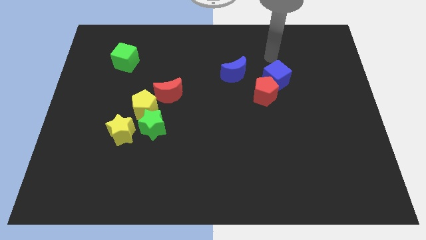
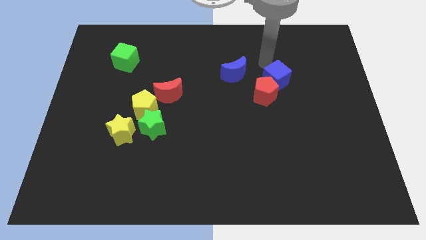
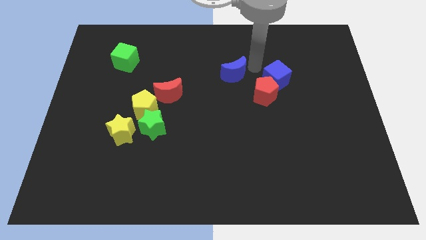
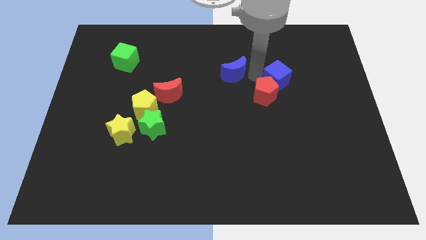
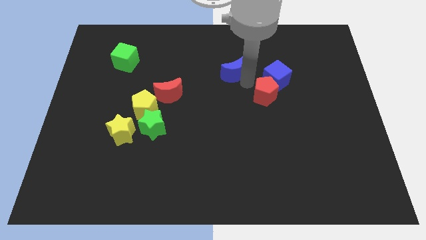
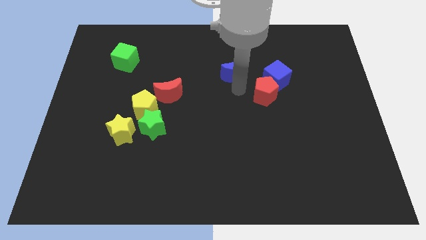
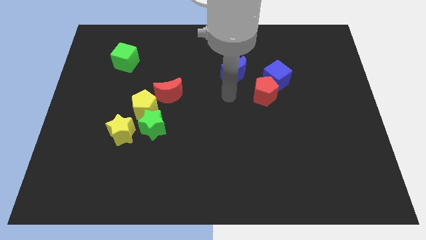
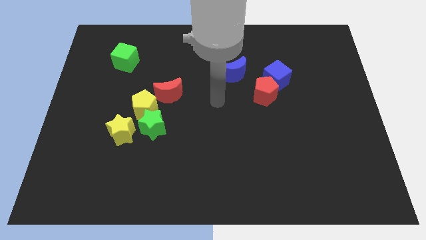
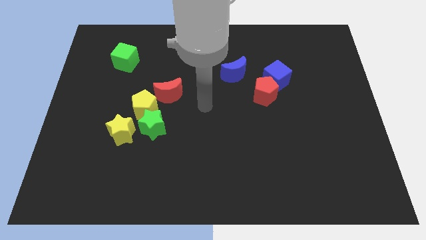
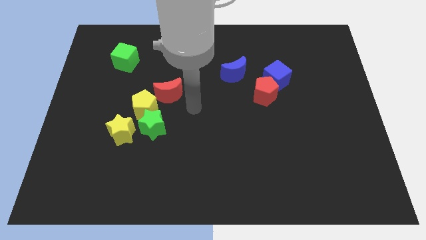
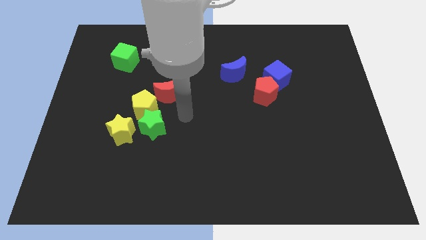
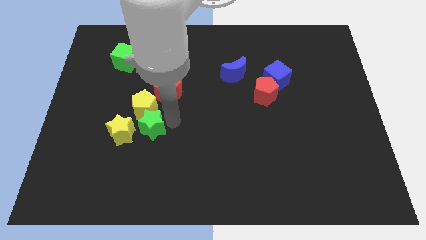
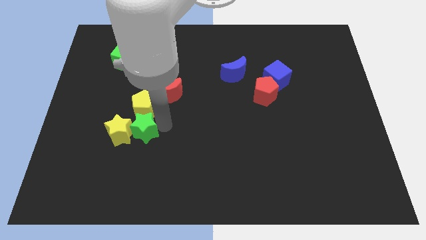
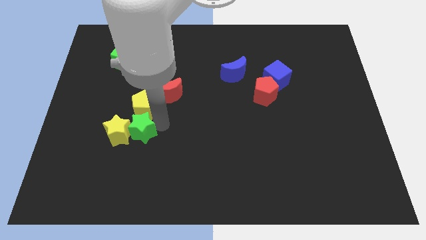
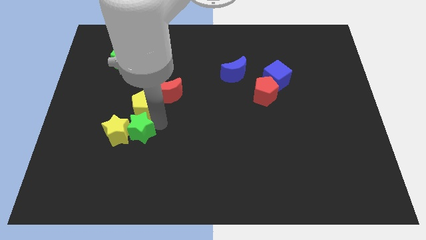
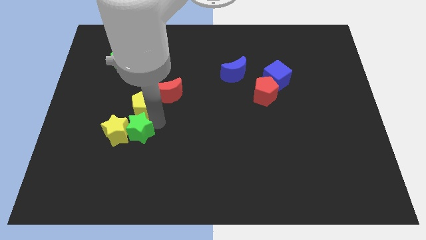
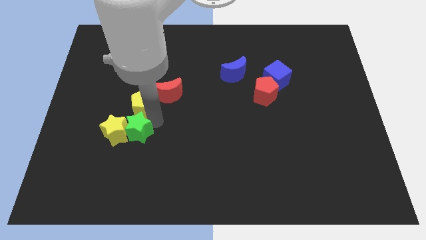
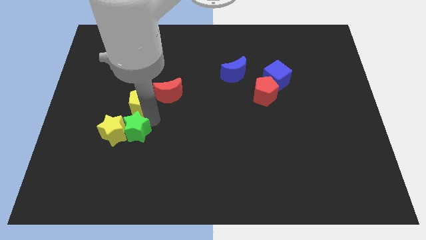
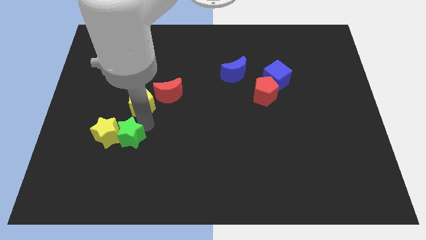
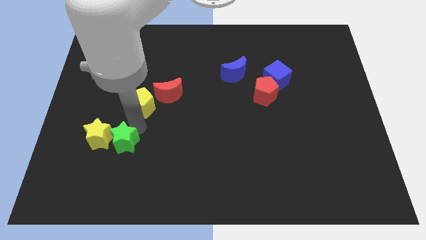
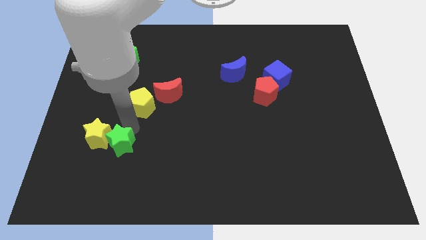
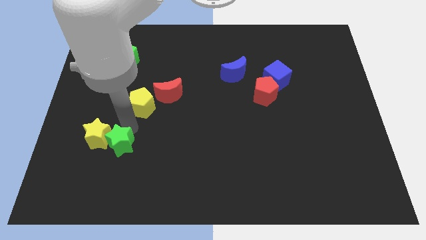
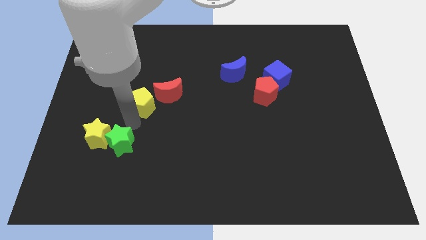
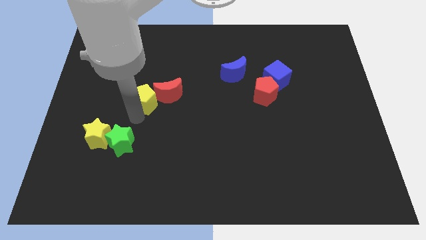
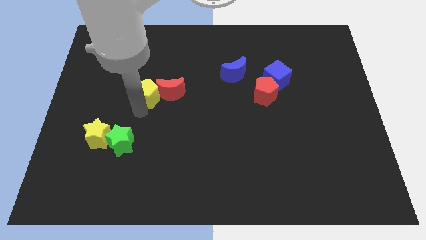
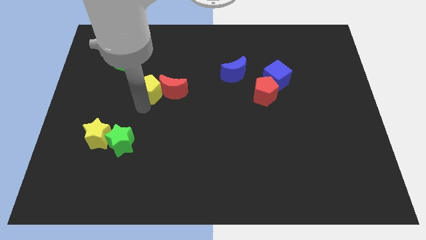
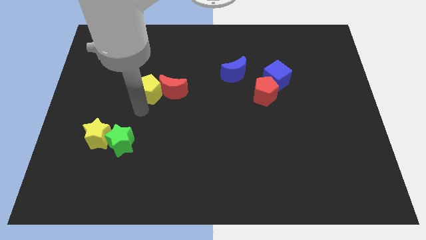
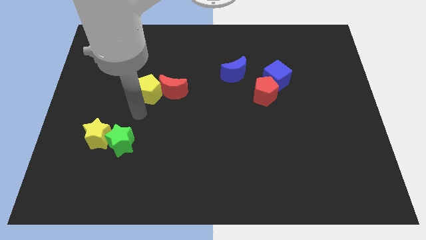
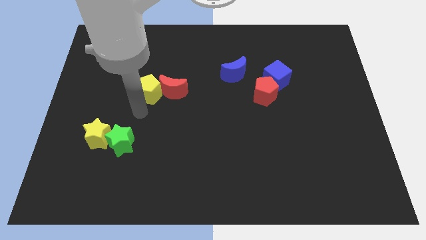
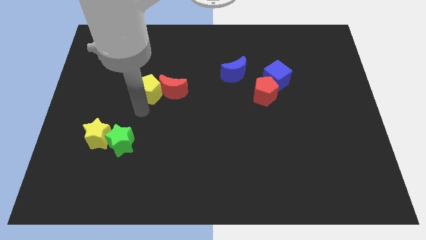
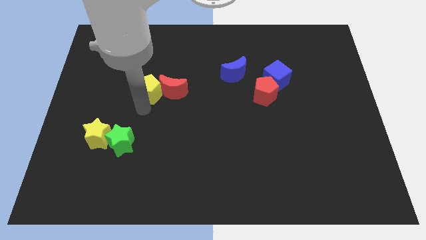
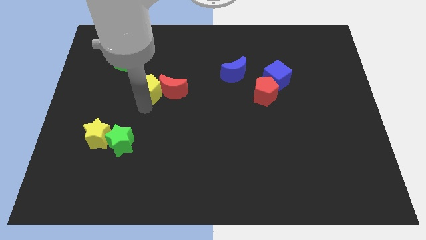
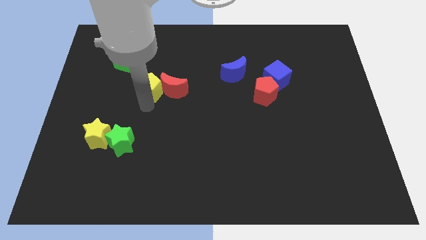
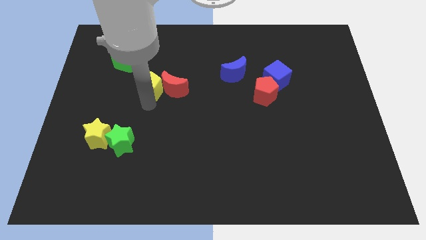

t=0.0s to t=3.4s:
move the yellow pentagon away from the clump

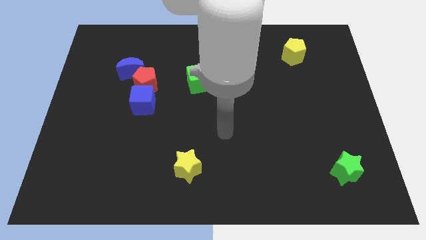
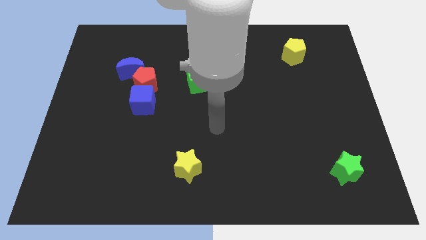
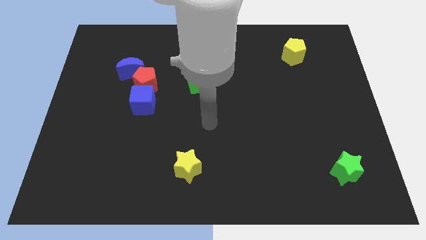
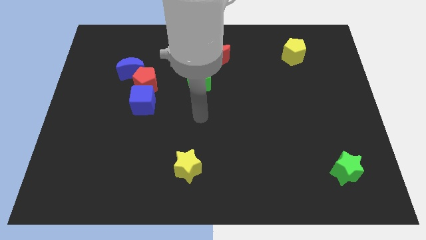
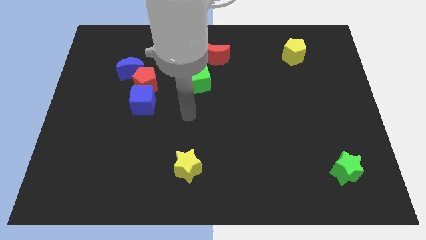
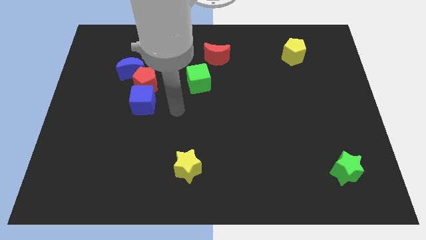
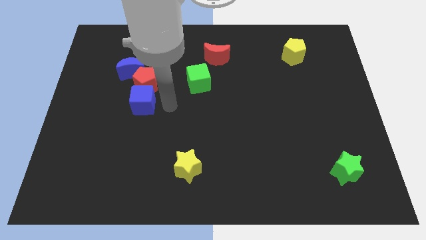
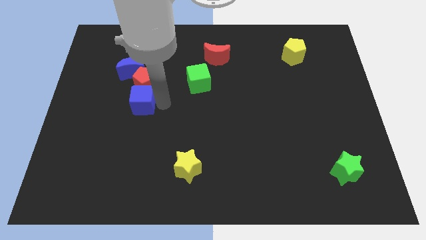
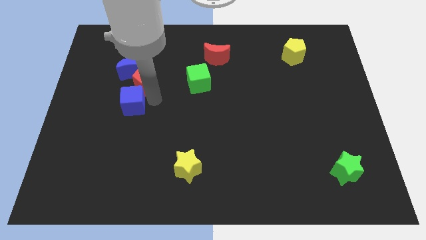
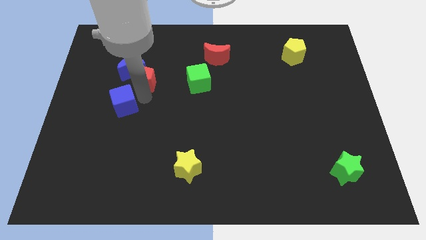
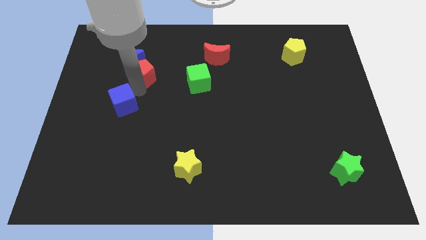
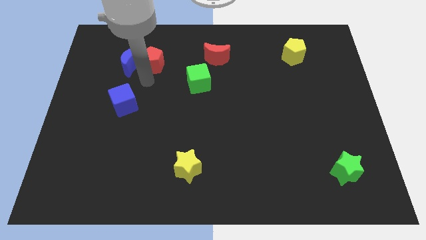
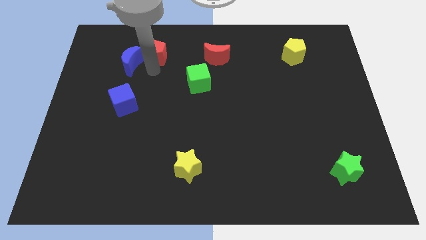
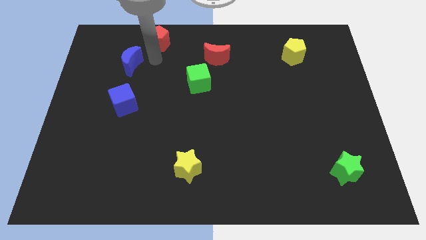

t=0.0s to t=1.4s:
pull the blue moon apart from the red pentagon

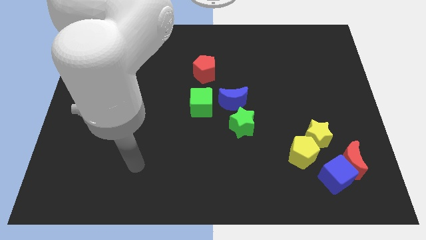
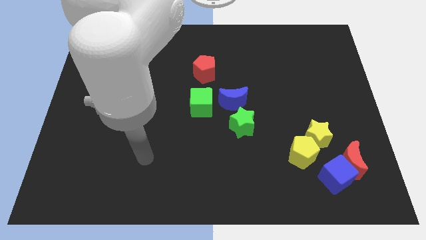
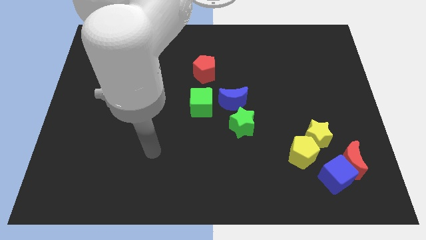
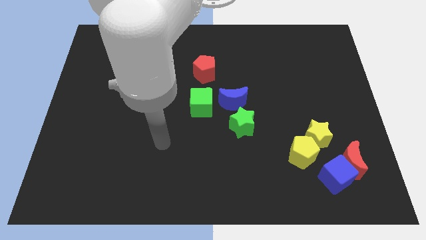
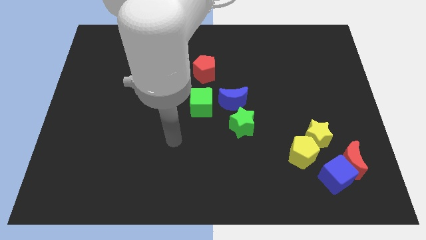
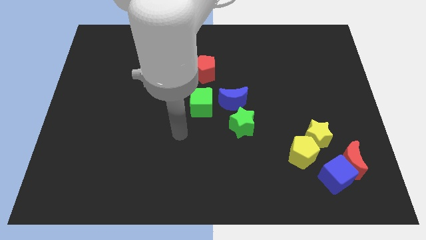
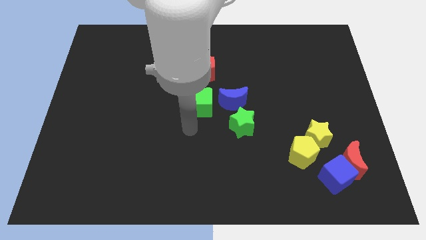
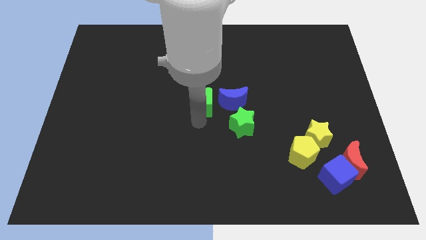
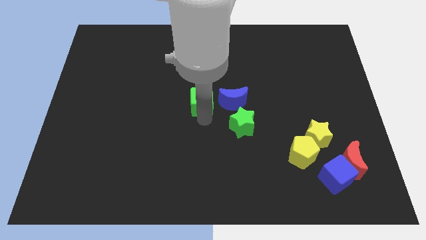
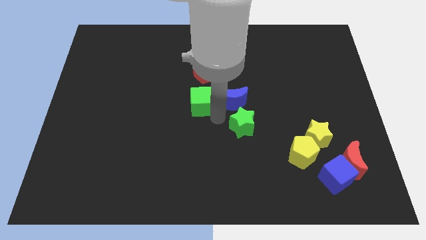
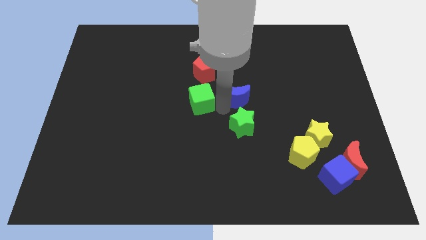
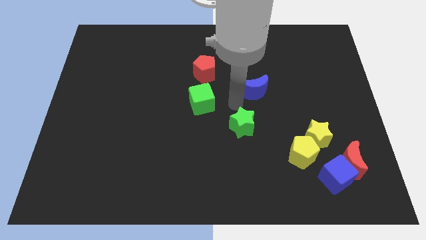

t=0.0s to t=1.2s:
move the green star away from the blue moon

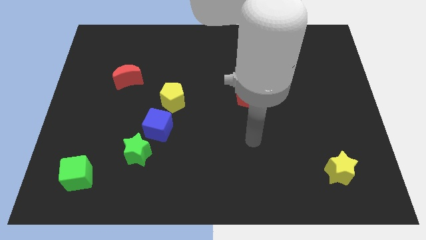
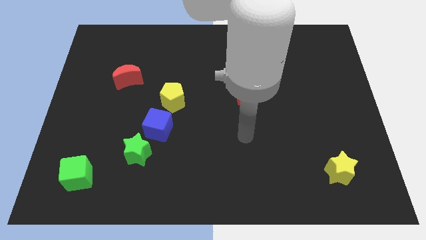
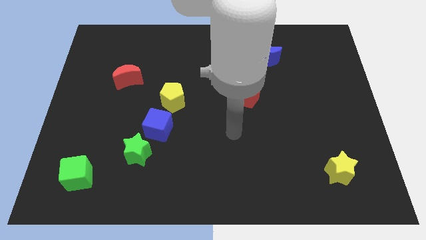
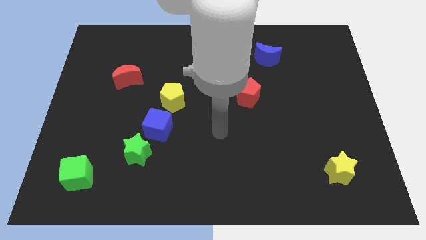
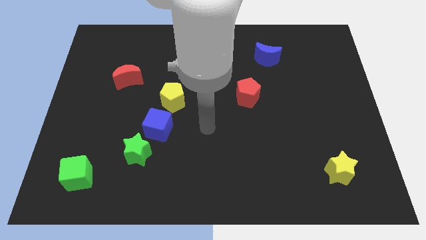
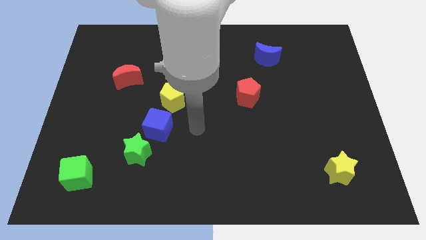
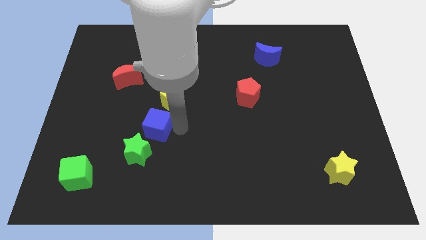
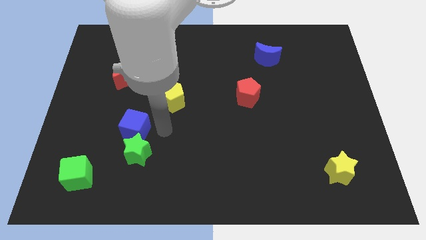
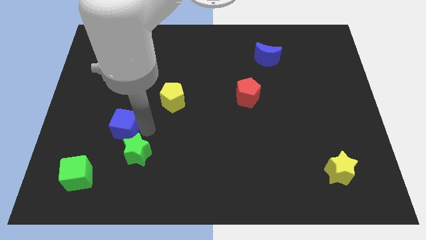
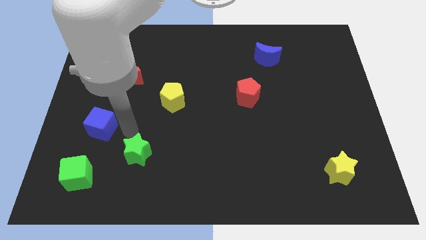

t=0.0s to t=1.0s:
move the green star away from the blue cube

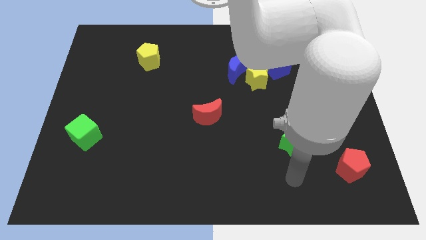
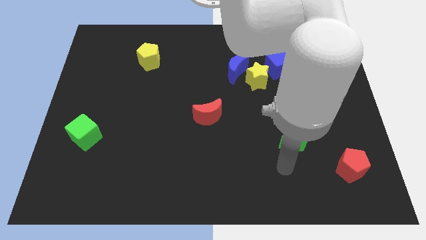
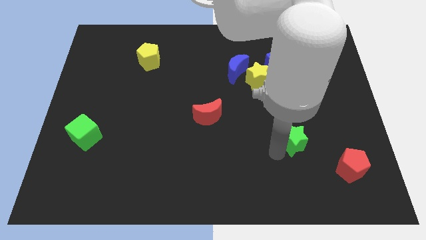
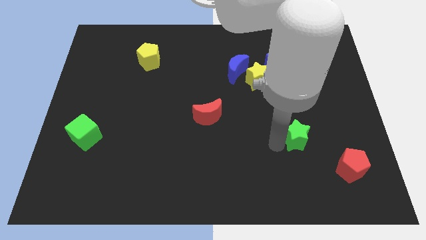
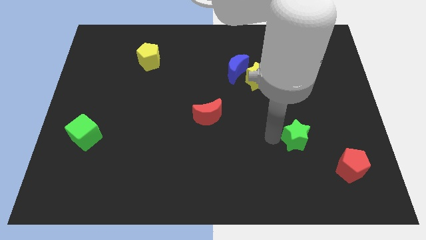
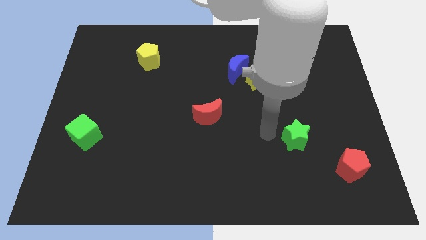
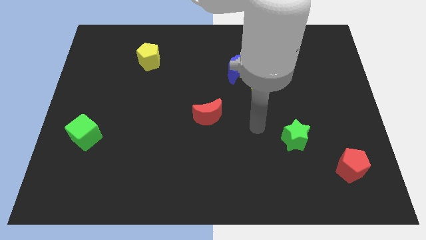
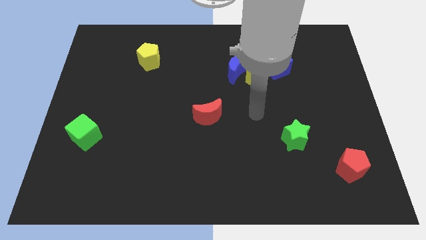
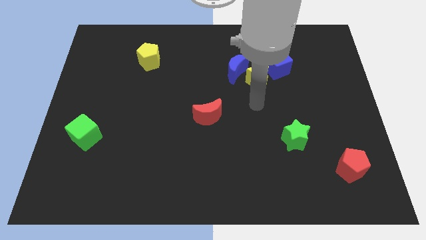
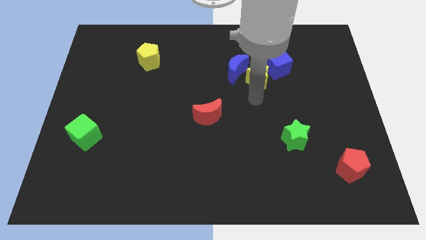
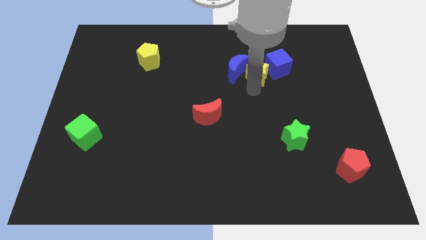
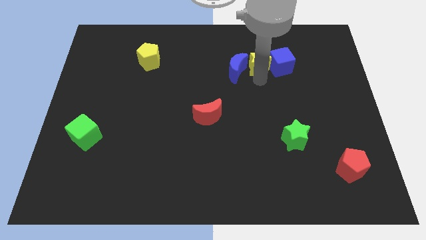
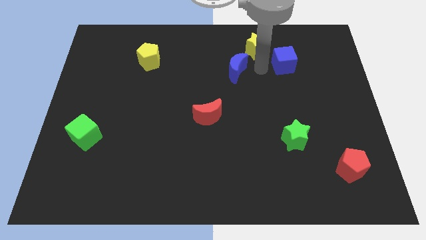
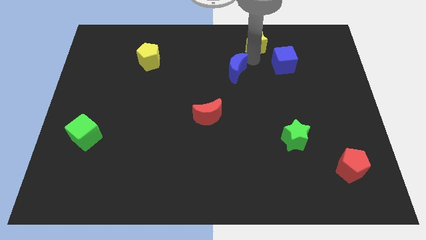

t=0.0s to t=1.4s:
separate the blue moon from the yellow star

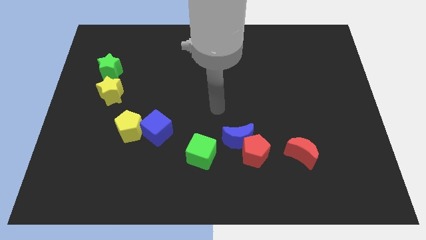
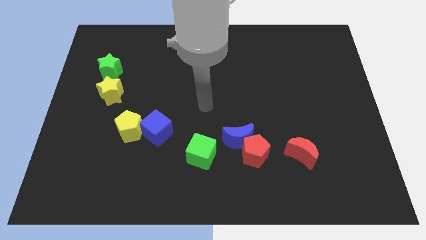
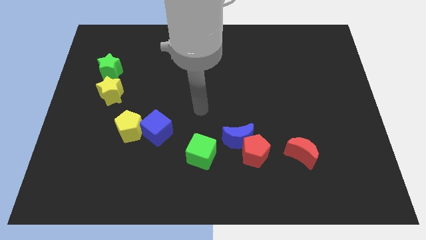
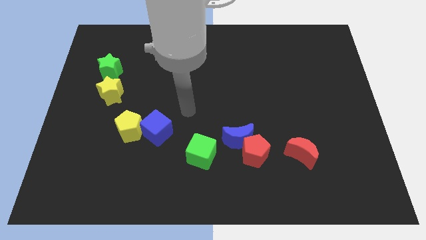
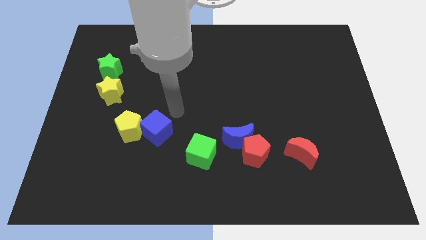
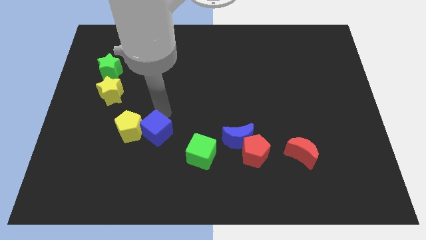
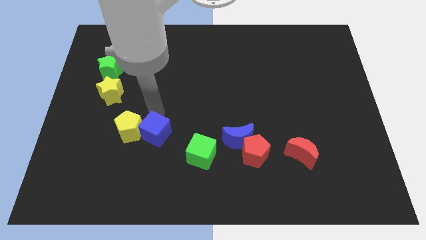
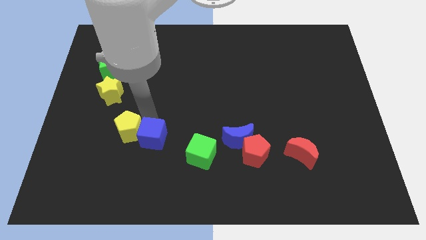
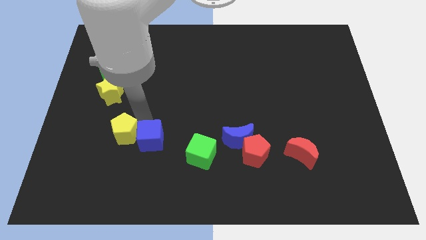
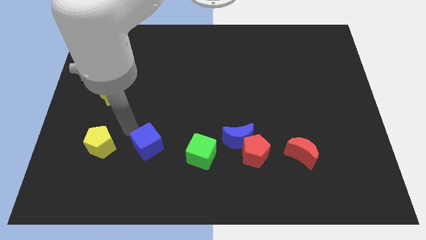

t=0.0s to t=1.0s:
move the blue cube away from the yellow pentagon

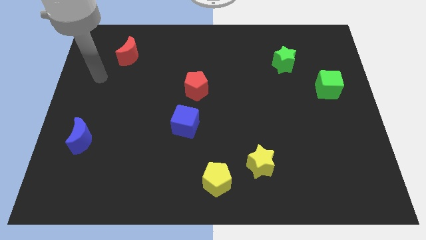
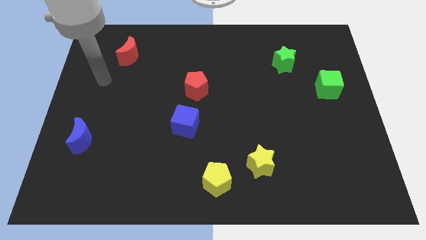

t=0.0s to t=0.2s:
separate the yellow star from the yellow pentagon
